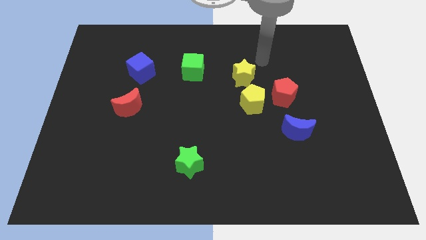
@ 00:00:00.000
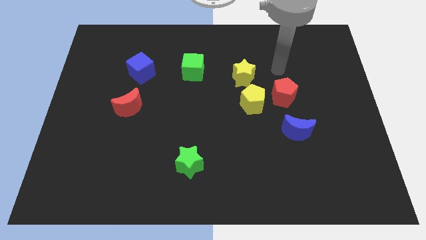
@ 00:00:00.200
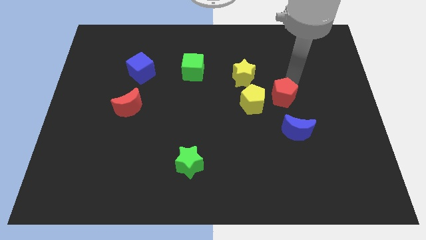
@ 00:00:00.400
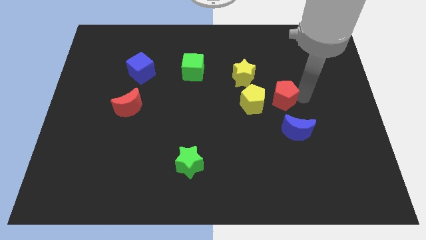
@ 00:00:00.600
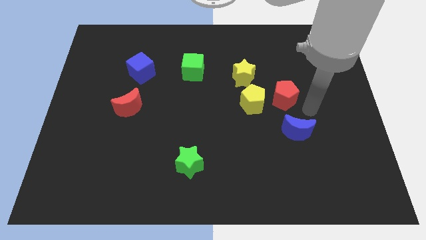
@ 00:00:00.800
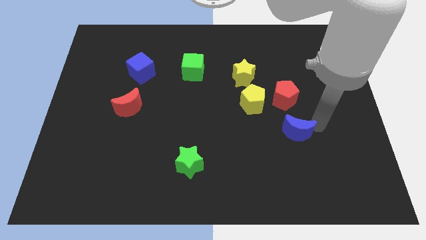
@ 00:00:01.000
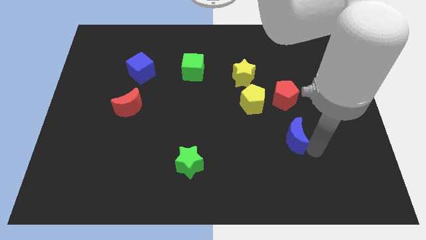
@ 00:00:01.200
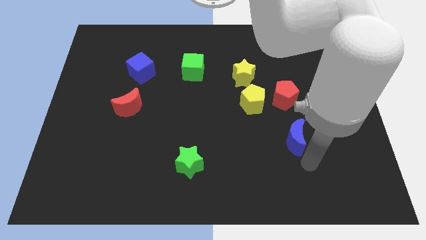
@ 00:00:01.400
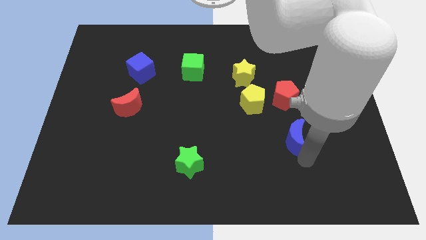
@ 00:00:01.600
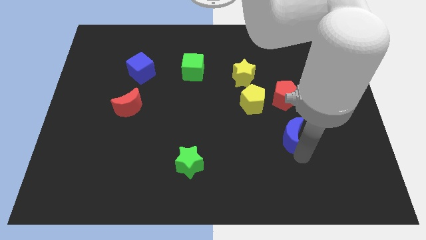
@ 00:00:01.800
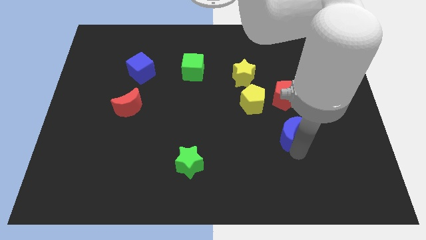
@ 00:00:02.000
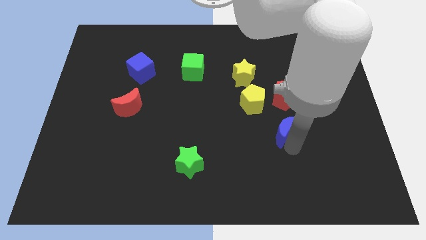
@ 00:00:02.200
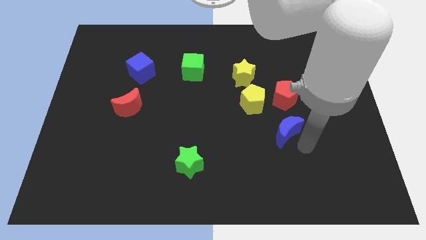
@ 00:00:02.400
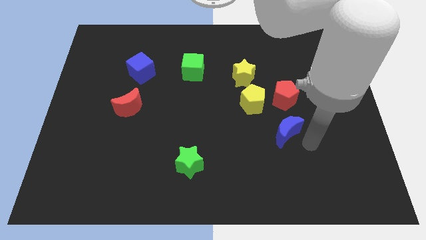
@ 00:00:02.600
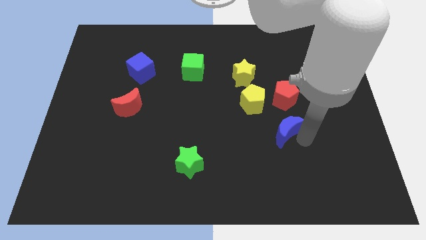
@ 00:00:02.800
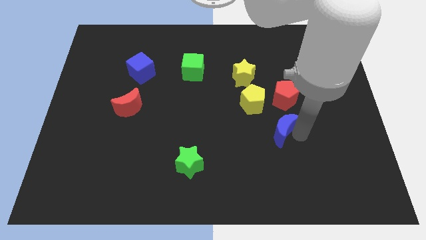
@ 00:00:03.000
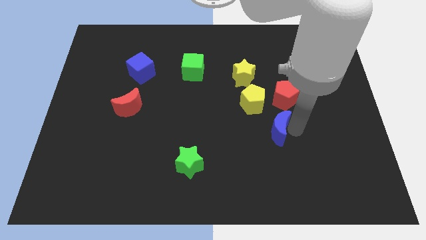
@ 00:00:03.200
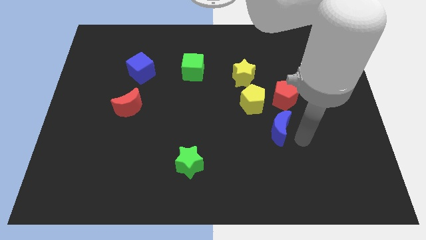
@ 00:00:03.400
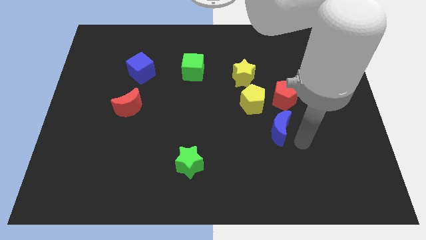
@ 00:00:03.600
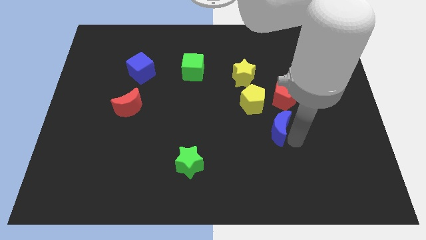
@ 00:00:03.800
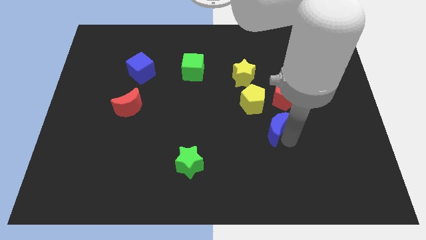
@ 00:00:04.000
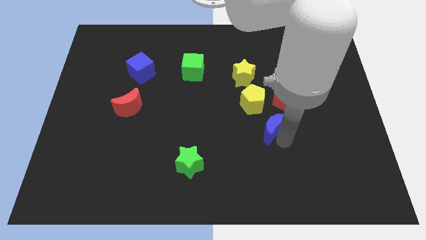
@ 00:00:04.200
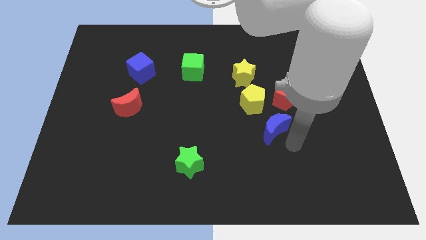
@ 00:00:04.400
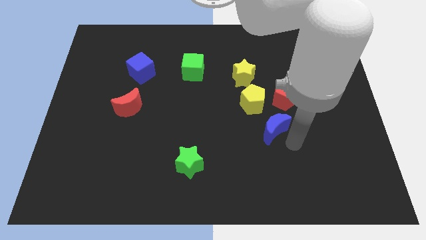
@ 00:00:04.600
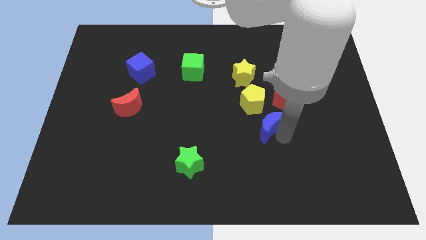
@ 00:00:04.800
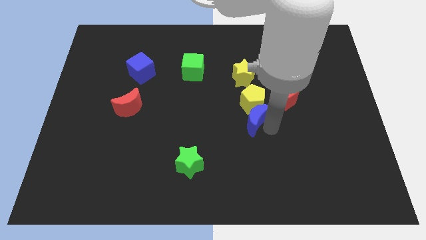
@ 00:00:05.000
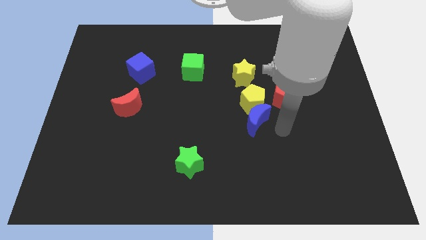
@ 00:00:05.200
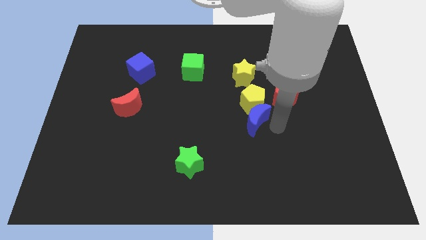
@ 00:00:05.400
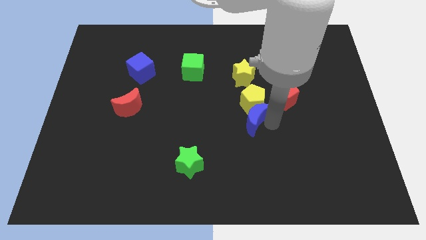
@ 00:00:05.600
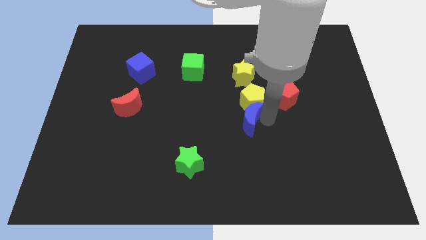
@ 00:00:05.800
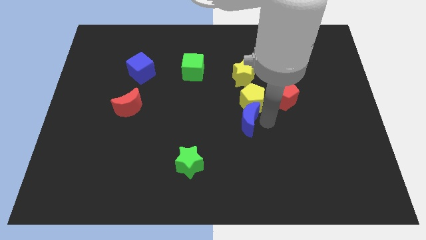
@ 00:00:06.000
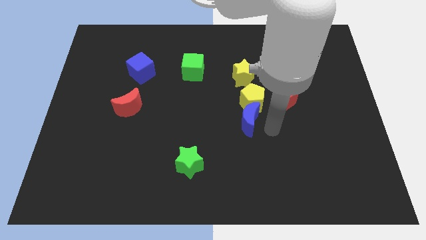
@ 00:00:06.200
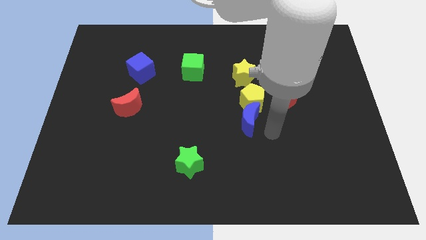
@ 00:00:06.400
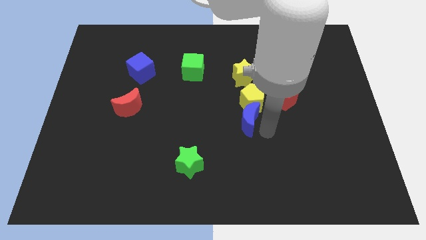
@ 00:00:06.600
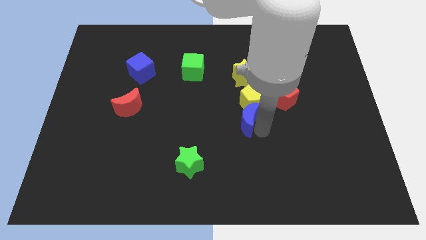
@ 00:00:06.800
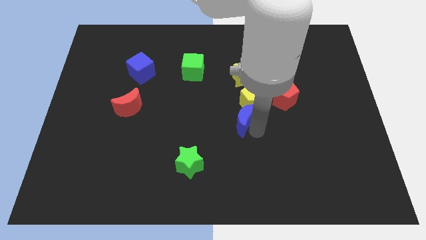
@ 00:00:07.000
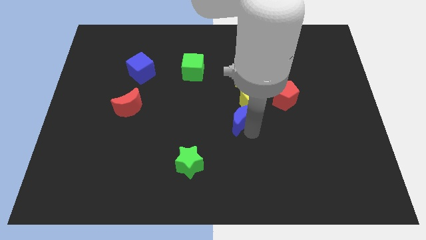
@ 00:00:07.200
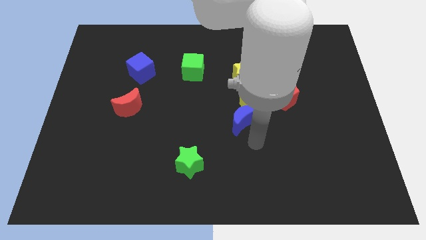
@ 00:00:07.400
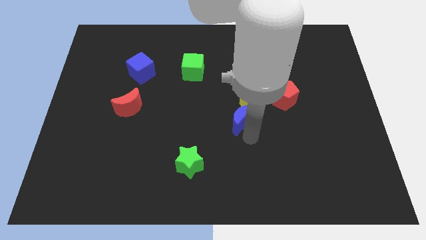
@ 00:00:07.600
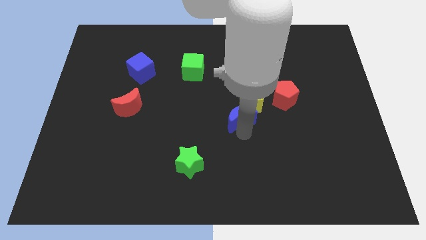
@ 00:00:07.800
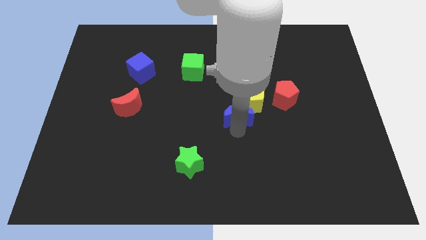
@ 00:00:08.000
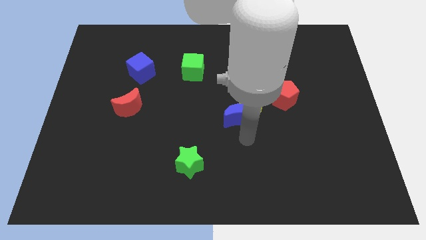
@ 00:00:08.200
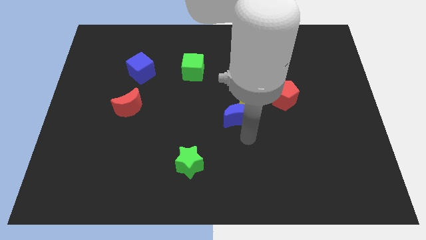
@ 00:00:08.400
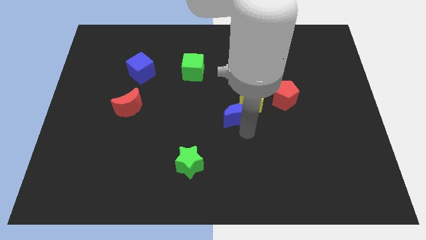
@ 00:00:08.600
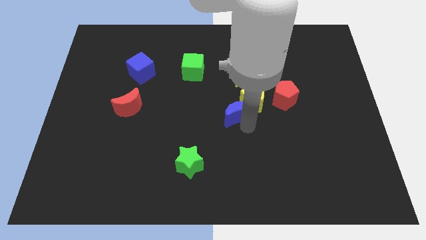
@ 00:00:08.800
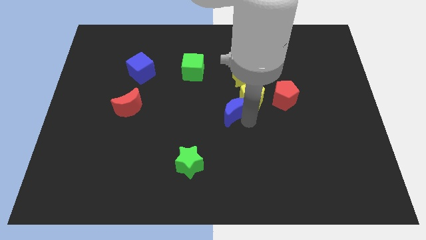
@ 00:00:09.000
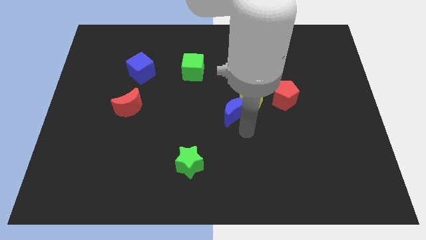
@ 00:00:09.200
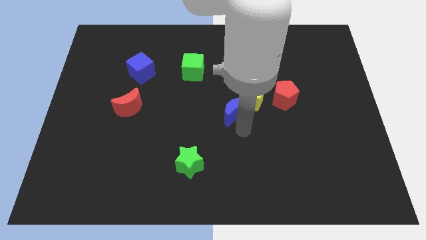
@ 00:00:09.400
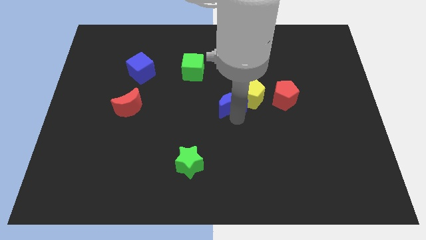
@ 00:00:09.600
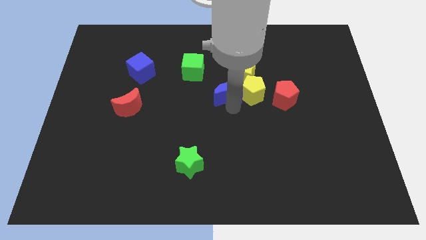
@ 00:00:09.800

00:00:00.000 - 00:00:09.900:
move the blue moon to the bottom right side of the green cube

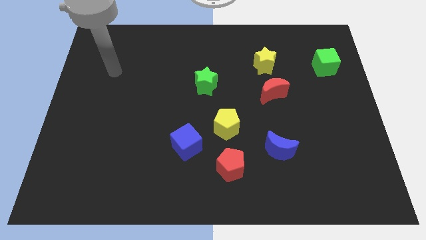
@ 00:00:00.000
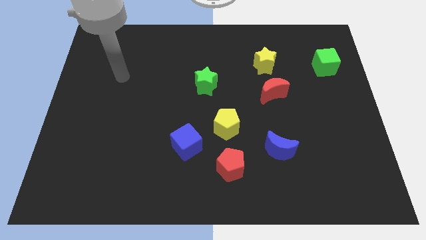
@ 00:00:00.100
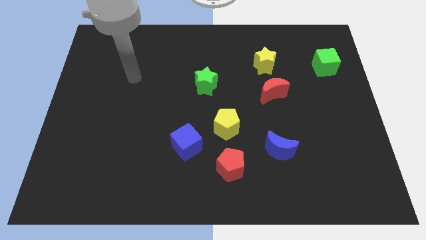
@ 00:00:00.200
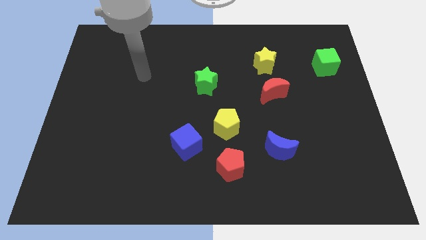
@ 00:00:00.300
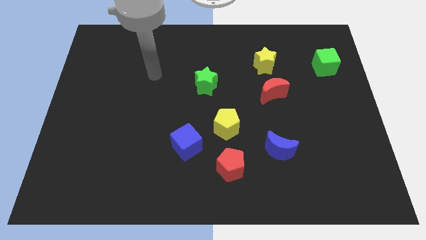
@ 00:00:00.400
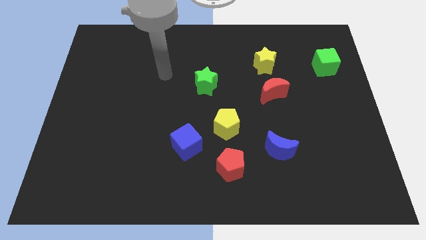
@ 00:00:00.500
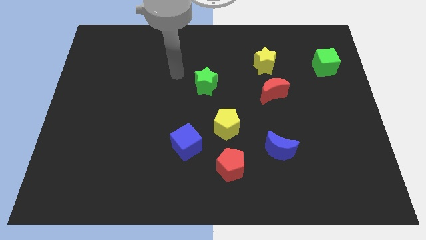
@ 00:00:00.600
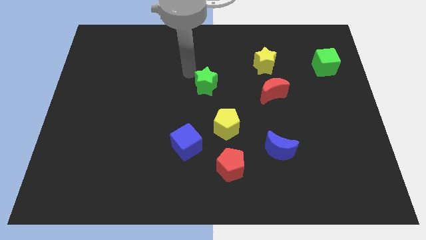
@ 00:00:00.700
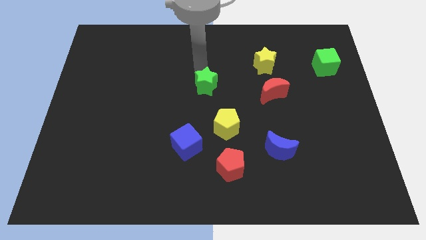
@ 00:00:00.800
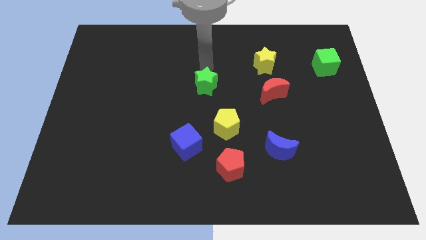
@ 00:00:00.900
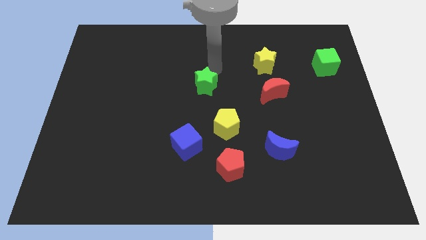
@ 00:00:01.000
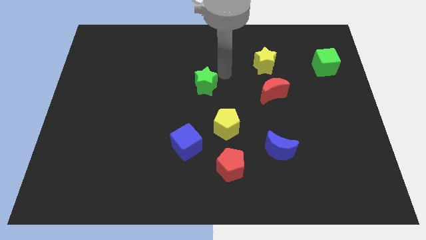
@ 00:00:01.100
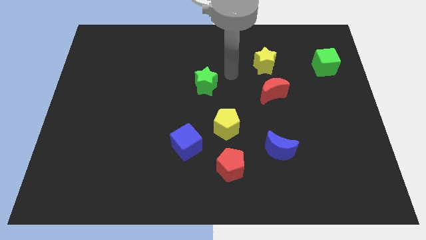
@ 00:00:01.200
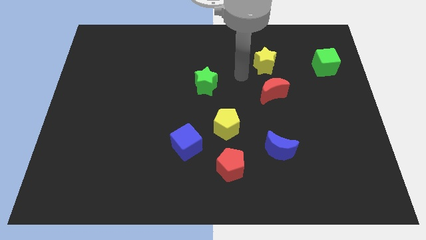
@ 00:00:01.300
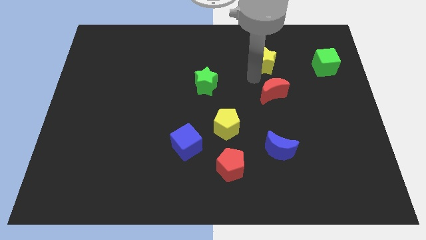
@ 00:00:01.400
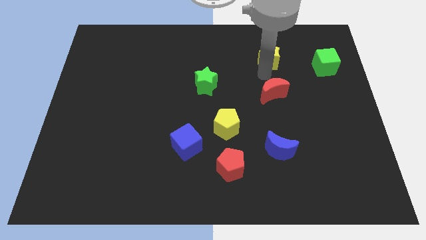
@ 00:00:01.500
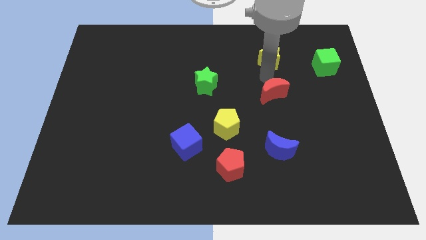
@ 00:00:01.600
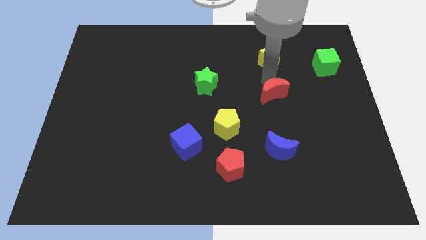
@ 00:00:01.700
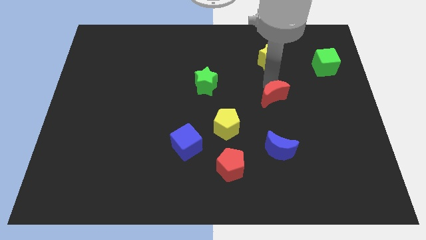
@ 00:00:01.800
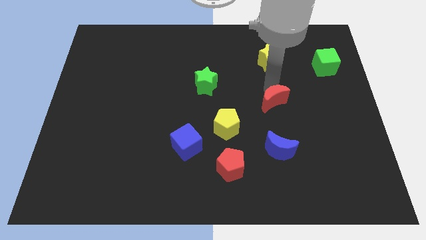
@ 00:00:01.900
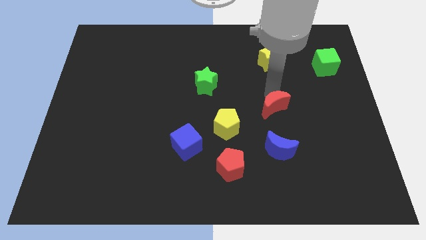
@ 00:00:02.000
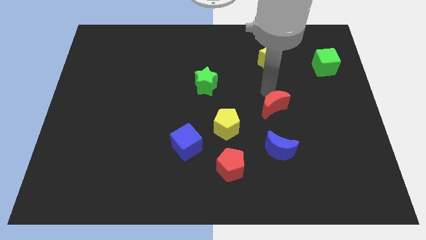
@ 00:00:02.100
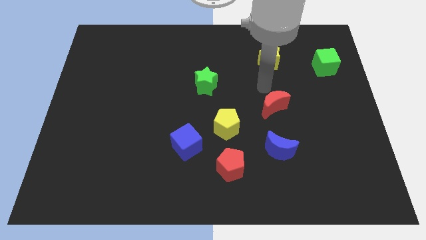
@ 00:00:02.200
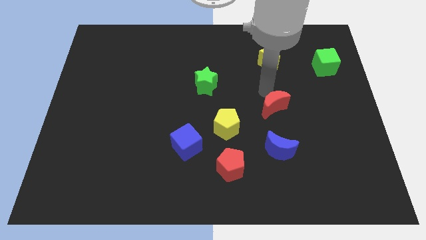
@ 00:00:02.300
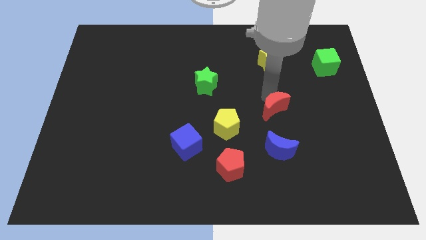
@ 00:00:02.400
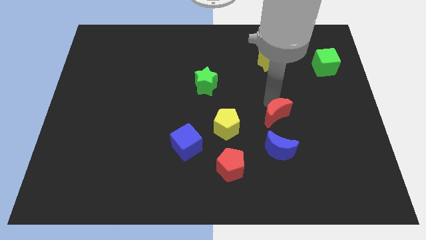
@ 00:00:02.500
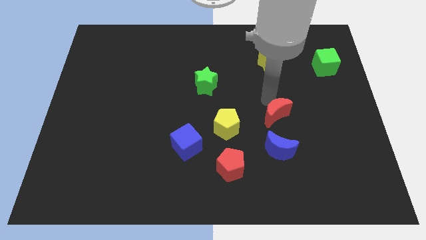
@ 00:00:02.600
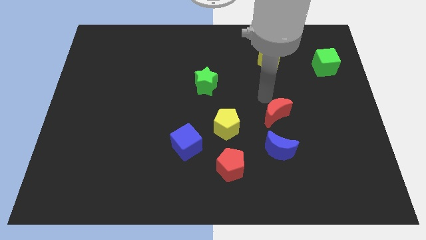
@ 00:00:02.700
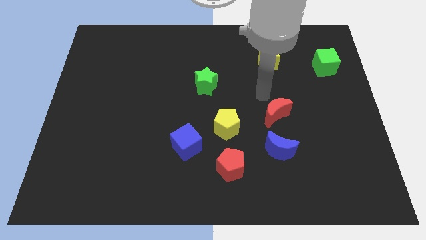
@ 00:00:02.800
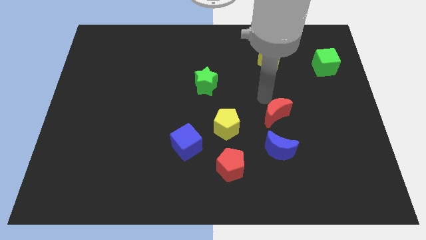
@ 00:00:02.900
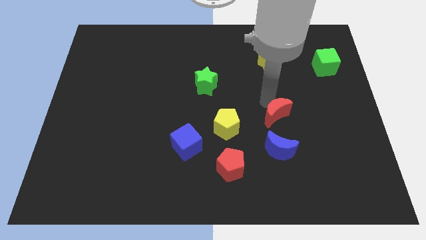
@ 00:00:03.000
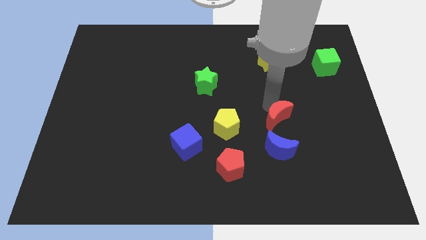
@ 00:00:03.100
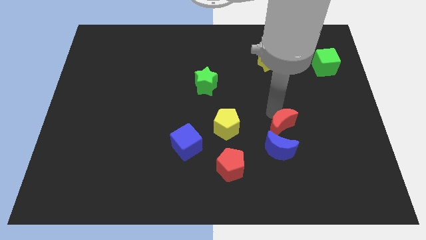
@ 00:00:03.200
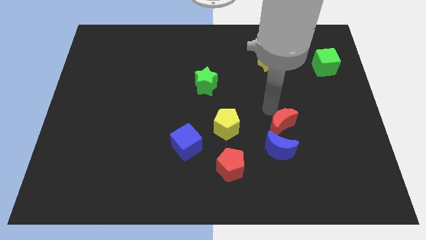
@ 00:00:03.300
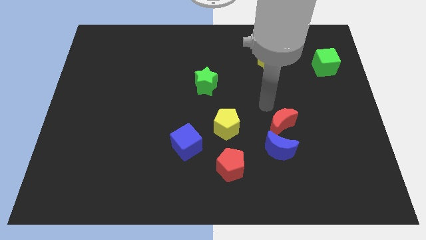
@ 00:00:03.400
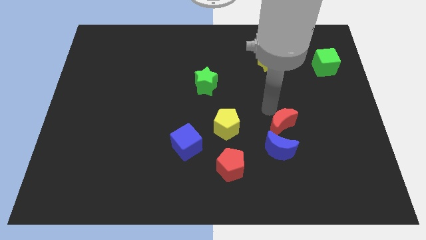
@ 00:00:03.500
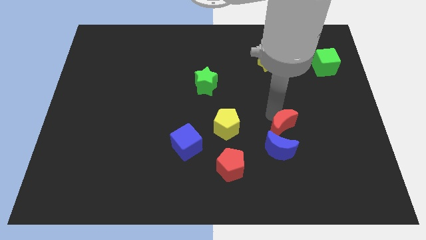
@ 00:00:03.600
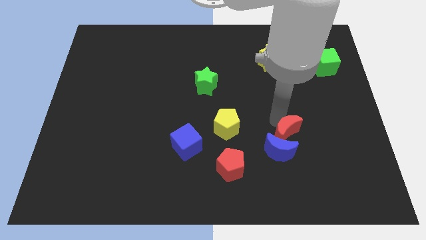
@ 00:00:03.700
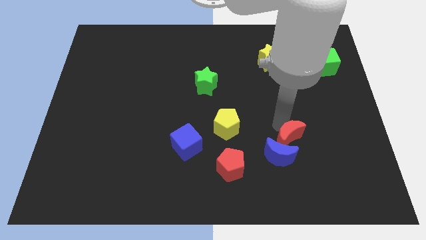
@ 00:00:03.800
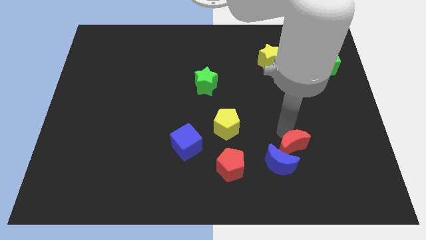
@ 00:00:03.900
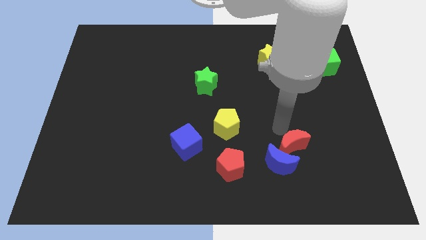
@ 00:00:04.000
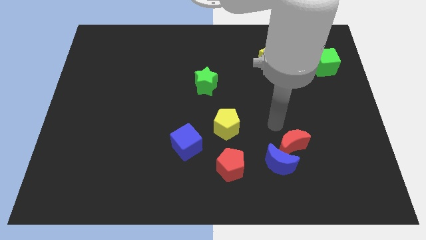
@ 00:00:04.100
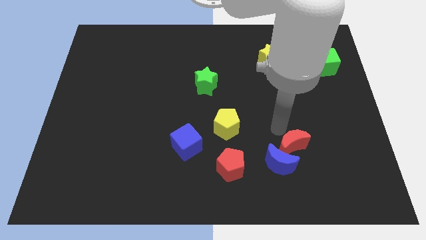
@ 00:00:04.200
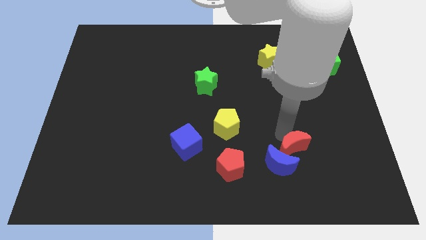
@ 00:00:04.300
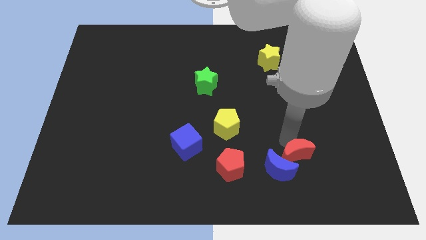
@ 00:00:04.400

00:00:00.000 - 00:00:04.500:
move the red moon just right of the red pentagon
